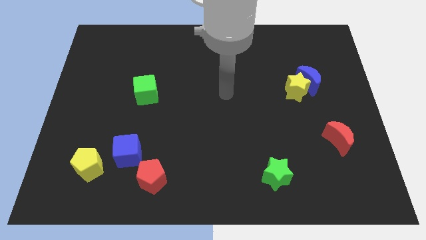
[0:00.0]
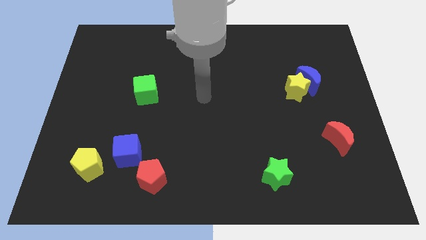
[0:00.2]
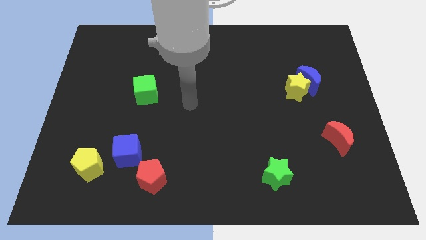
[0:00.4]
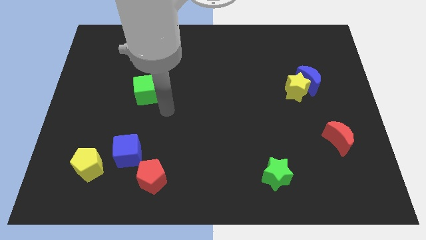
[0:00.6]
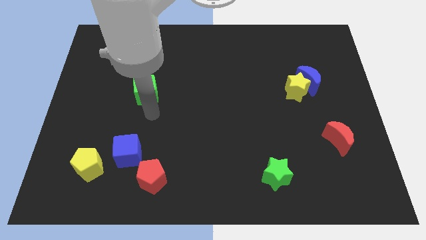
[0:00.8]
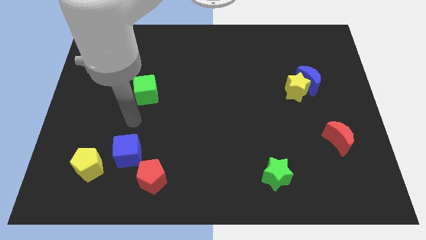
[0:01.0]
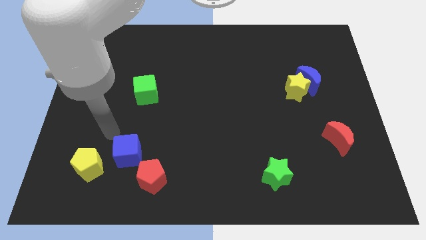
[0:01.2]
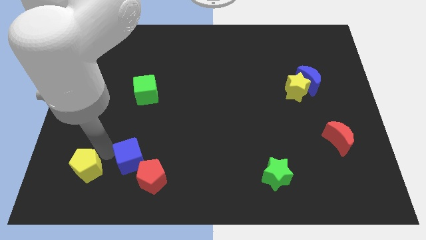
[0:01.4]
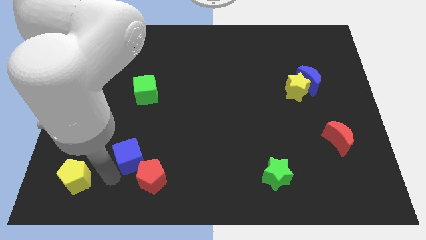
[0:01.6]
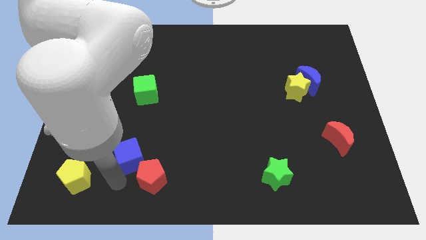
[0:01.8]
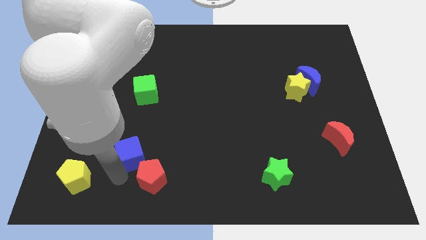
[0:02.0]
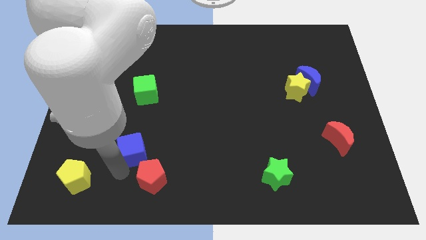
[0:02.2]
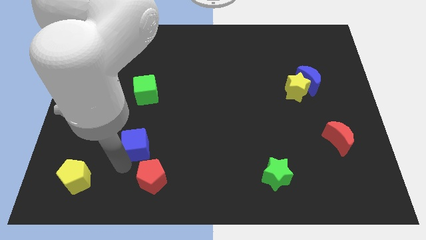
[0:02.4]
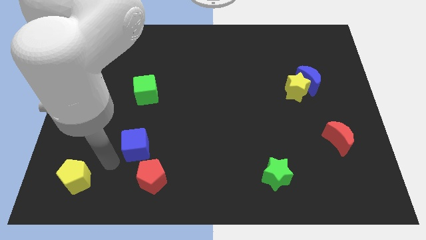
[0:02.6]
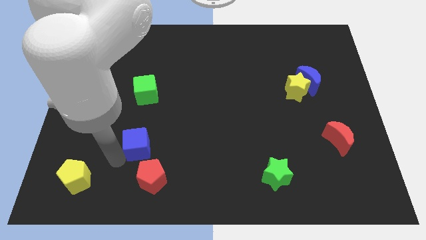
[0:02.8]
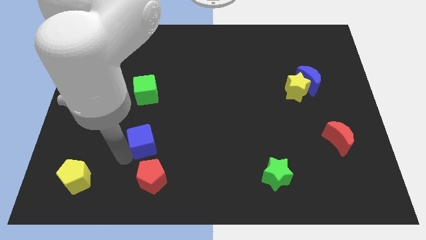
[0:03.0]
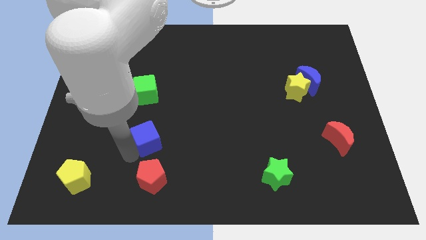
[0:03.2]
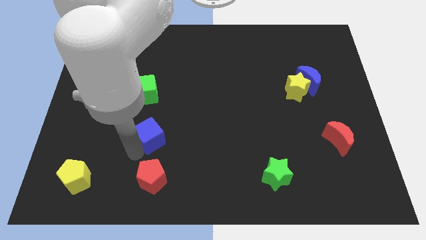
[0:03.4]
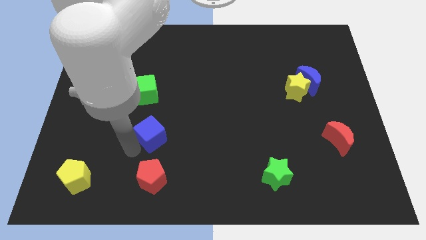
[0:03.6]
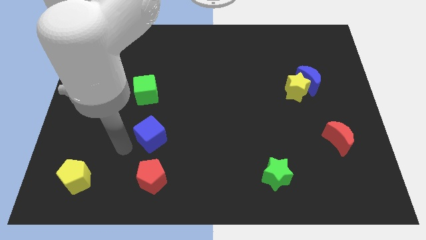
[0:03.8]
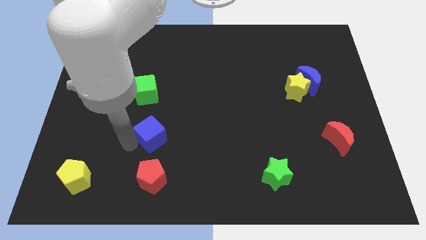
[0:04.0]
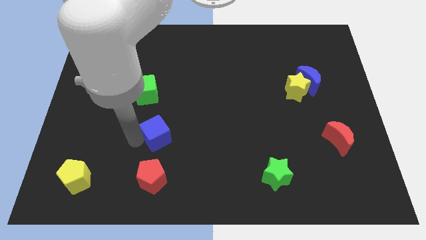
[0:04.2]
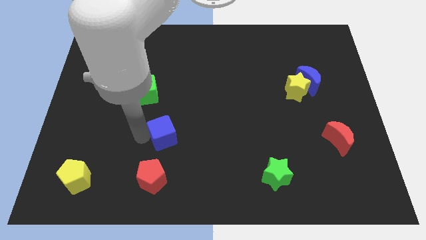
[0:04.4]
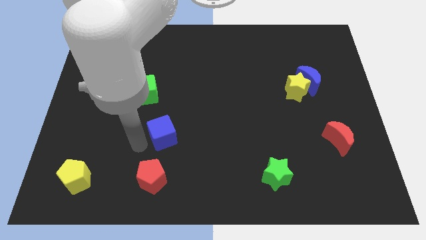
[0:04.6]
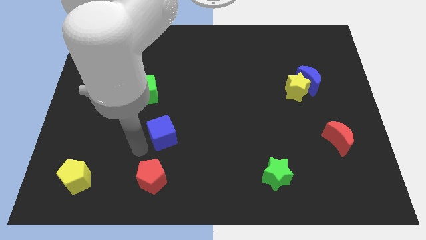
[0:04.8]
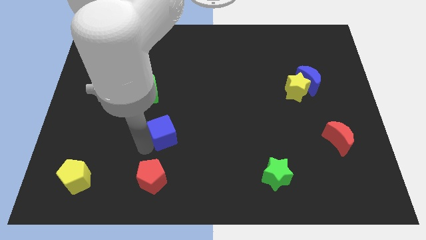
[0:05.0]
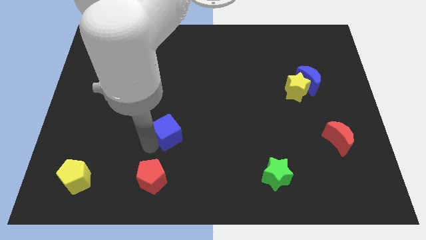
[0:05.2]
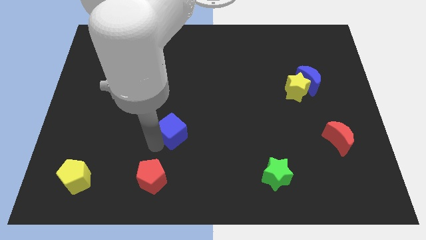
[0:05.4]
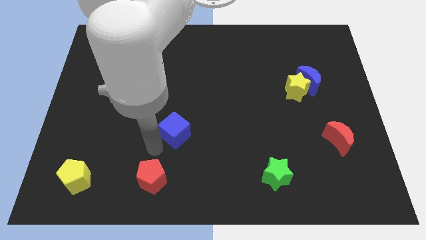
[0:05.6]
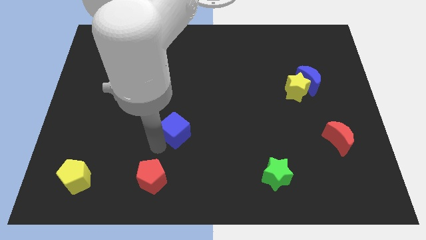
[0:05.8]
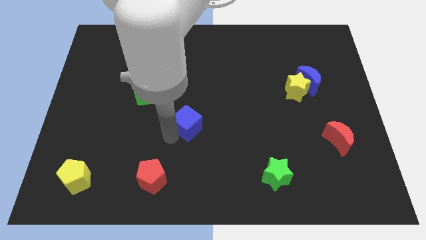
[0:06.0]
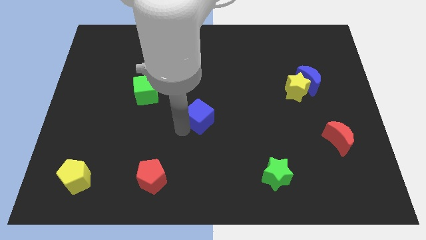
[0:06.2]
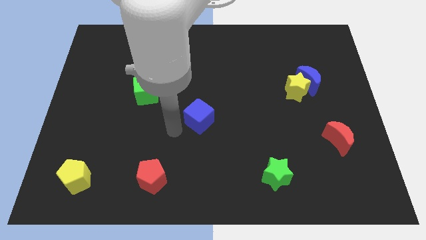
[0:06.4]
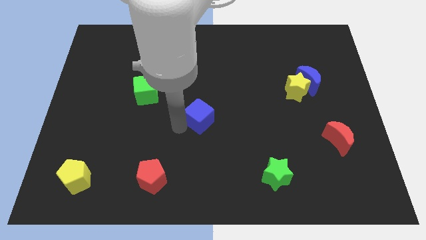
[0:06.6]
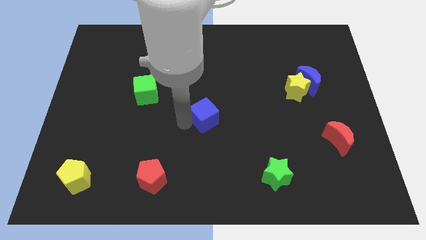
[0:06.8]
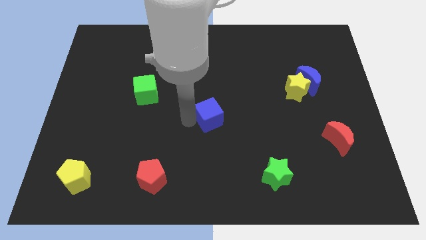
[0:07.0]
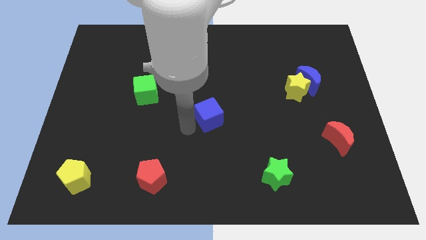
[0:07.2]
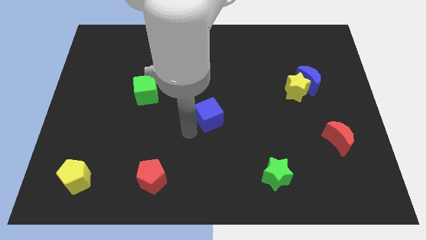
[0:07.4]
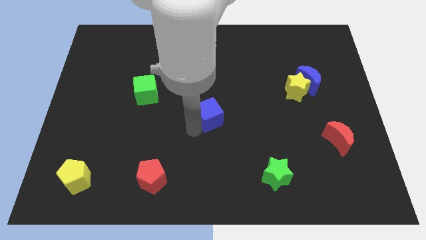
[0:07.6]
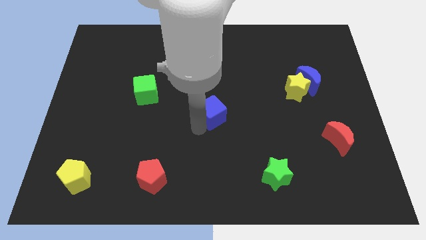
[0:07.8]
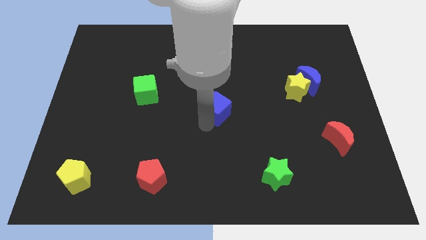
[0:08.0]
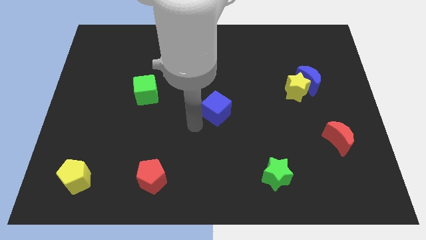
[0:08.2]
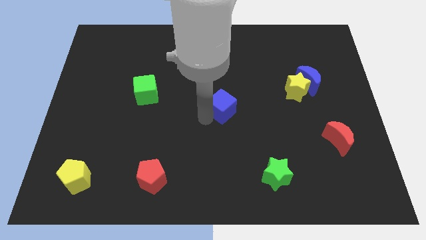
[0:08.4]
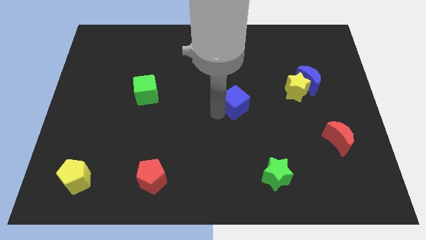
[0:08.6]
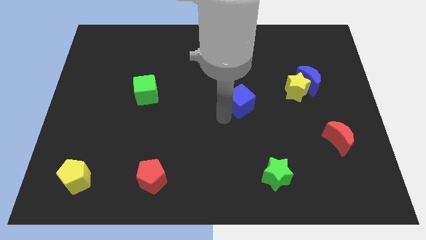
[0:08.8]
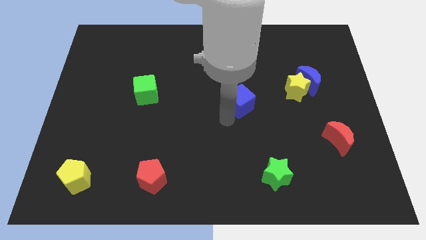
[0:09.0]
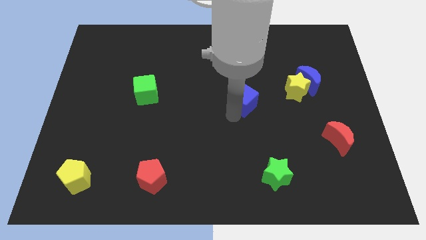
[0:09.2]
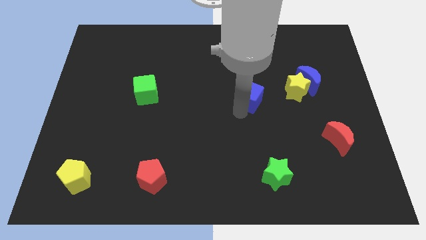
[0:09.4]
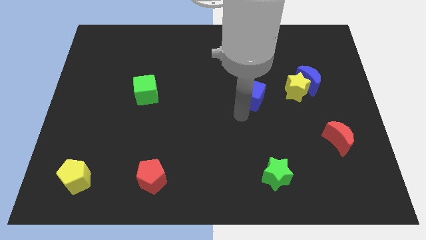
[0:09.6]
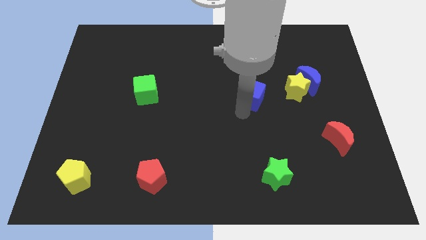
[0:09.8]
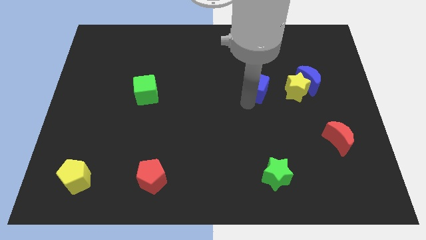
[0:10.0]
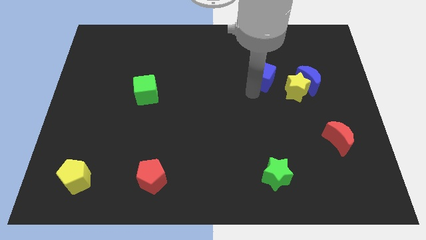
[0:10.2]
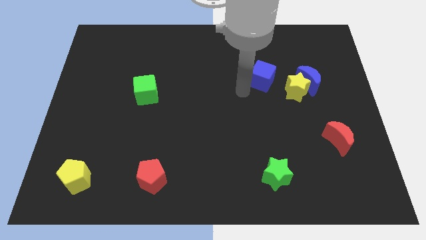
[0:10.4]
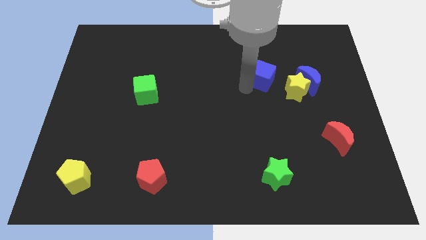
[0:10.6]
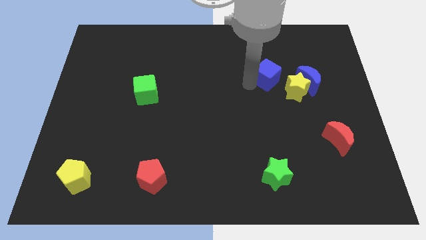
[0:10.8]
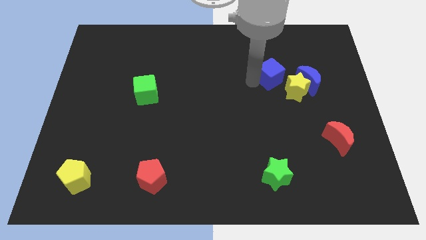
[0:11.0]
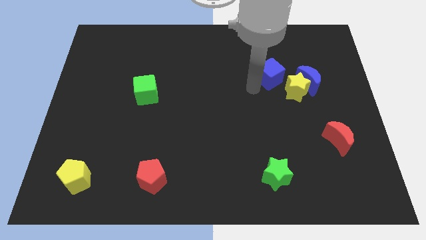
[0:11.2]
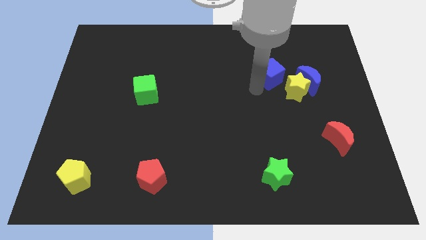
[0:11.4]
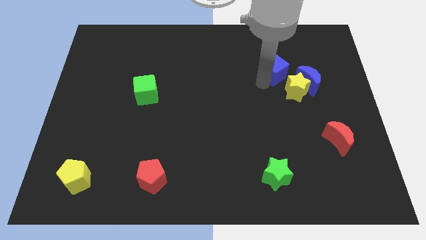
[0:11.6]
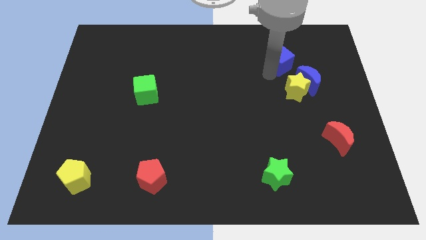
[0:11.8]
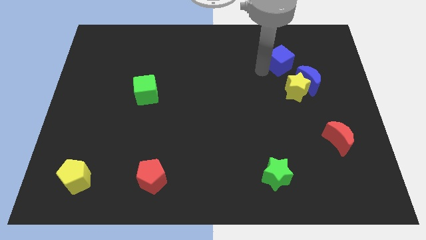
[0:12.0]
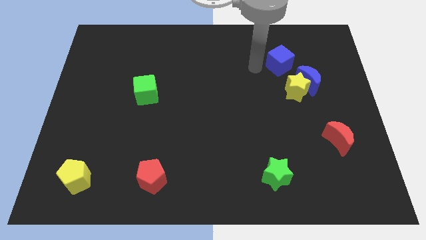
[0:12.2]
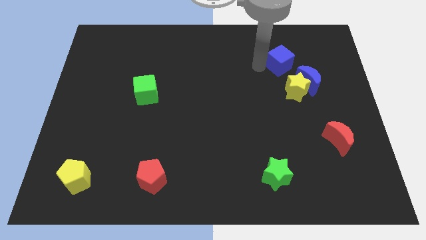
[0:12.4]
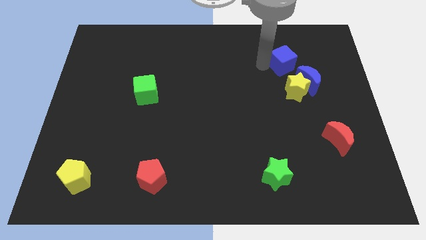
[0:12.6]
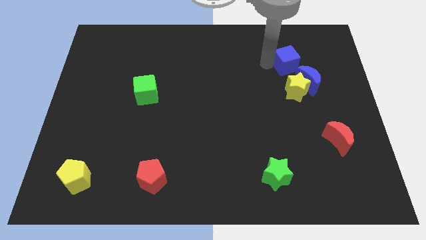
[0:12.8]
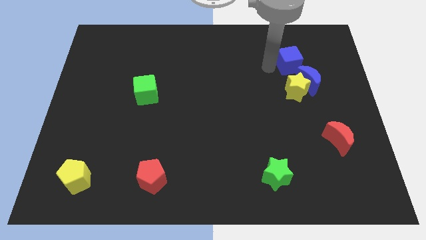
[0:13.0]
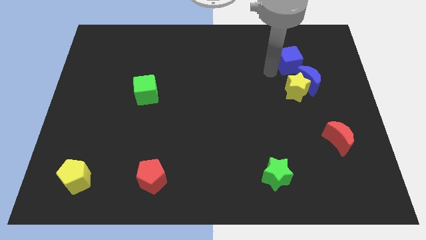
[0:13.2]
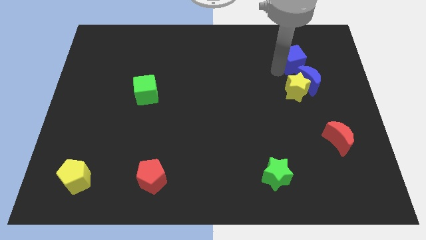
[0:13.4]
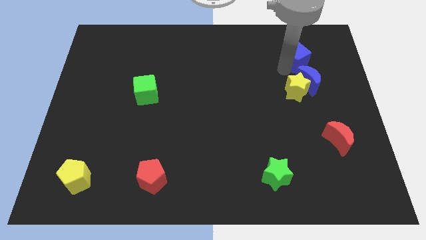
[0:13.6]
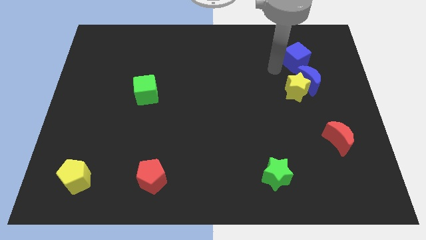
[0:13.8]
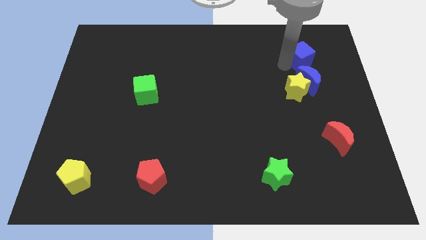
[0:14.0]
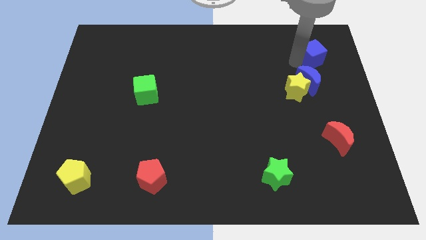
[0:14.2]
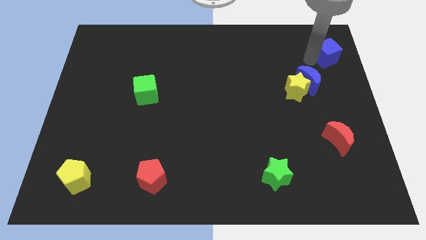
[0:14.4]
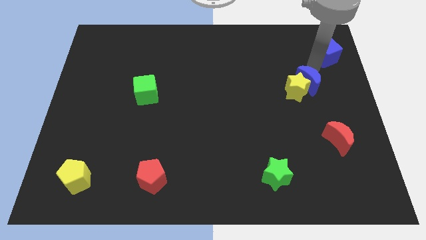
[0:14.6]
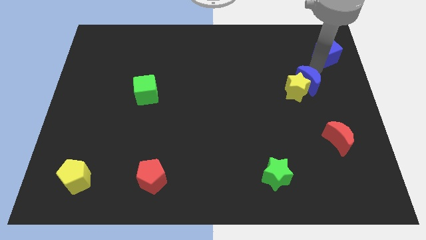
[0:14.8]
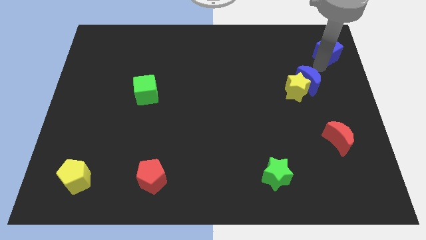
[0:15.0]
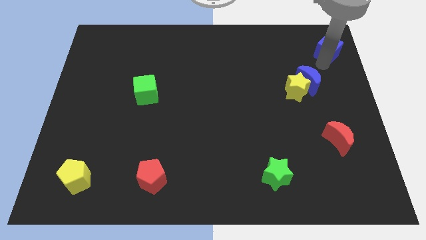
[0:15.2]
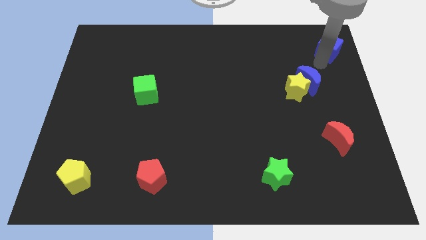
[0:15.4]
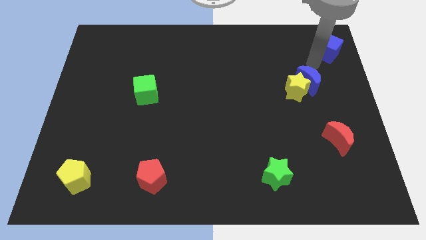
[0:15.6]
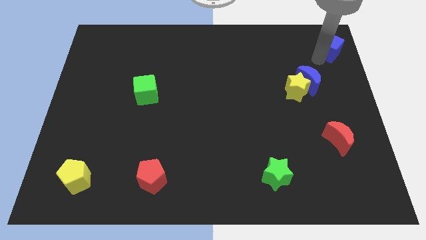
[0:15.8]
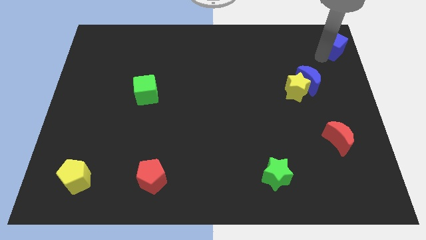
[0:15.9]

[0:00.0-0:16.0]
push the blue cube to the top right corner
